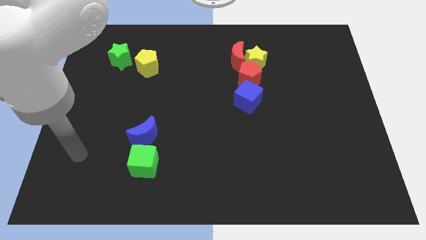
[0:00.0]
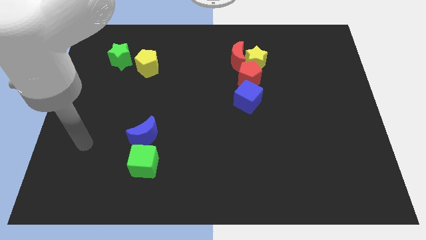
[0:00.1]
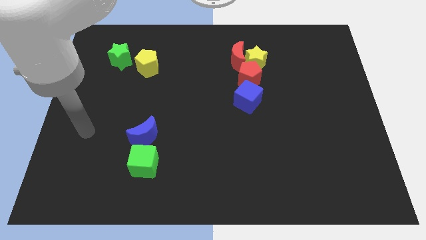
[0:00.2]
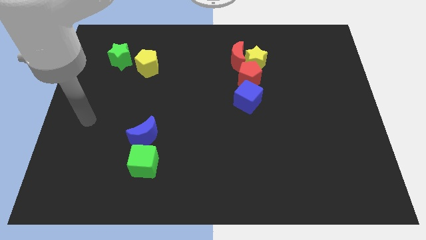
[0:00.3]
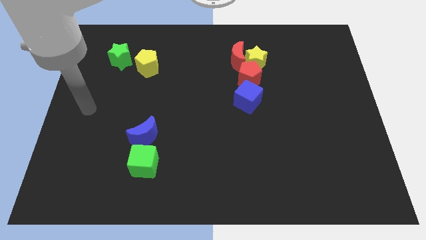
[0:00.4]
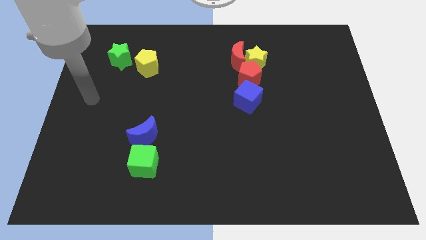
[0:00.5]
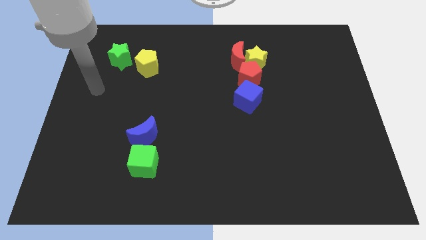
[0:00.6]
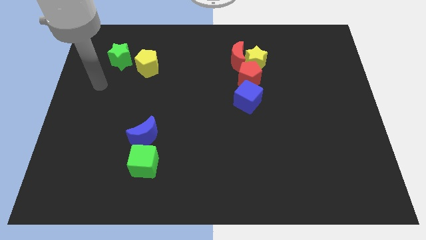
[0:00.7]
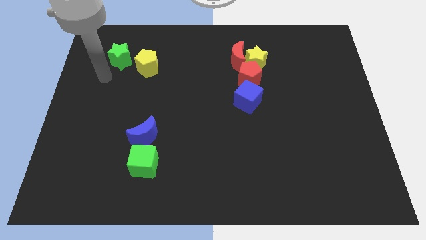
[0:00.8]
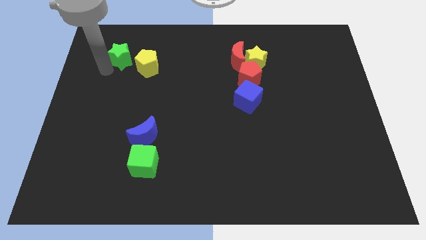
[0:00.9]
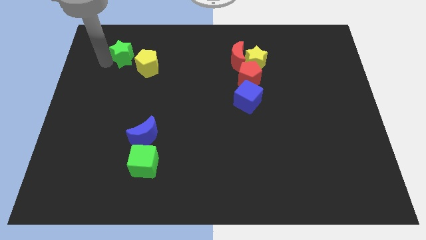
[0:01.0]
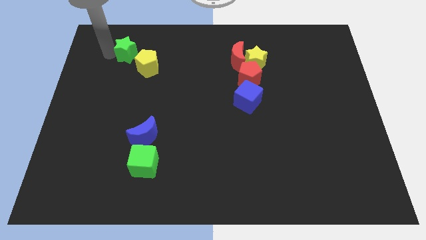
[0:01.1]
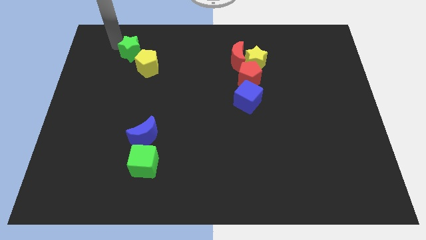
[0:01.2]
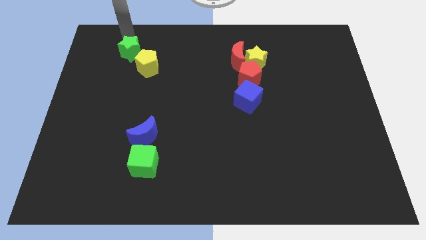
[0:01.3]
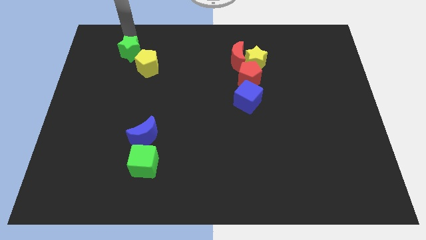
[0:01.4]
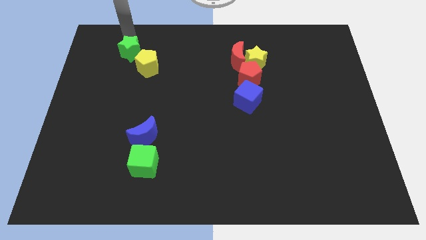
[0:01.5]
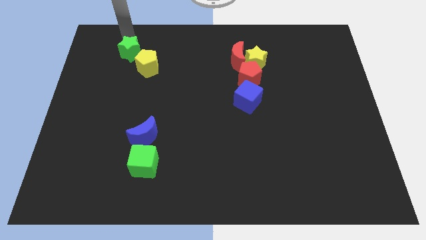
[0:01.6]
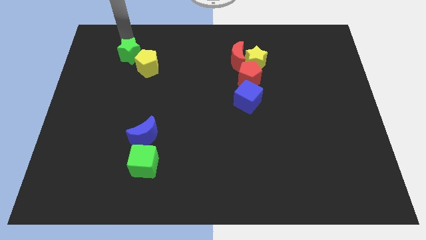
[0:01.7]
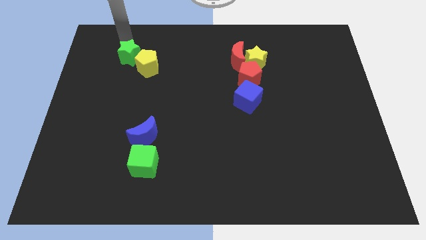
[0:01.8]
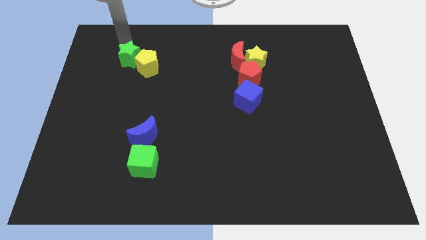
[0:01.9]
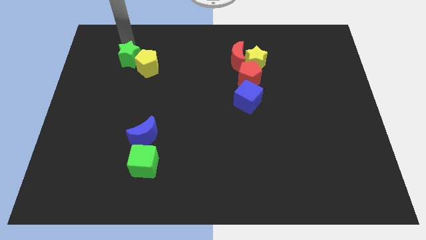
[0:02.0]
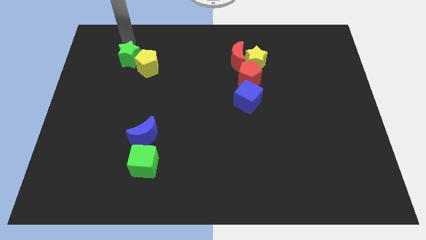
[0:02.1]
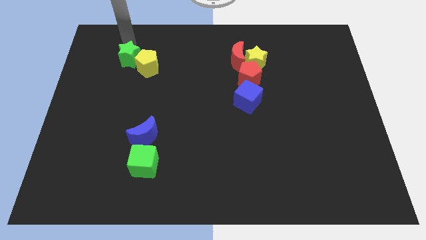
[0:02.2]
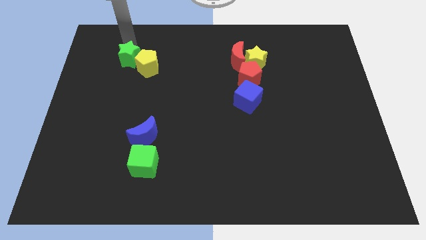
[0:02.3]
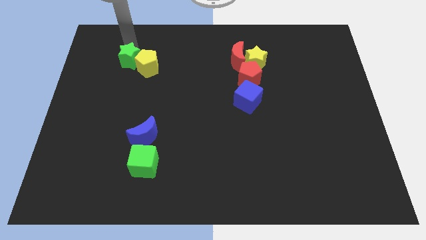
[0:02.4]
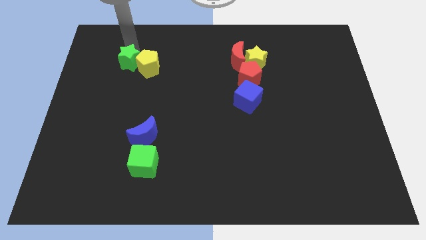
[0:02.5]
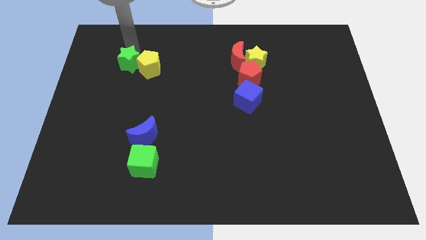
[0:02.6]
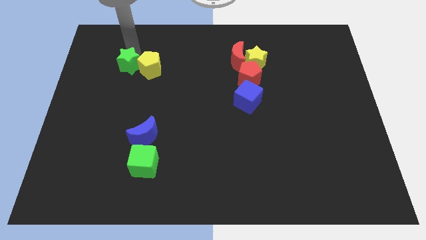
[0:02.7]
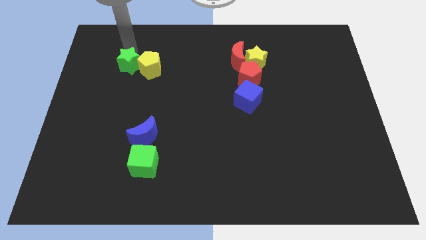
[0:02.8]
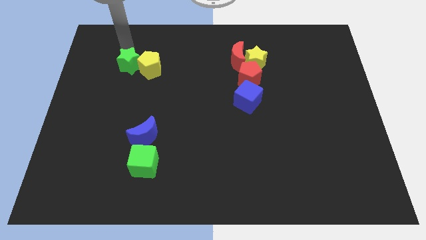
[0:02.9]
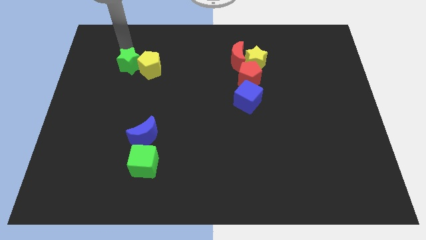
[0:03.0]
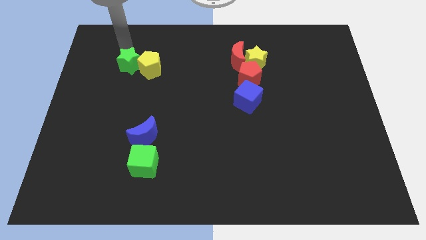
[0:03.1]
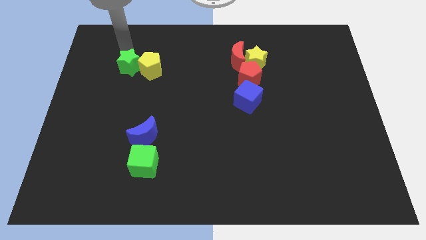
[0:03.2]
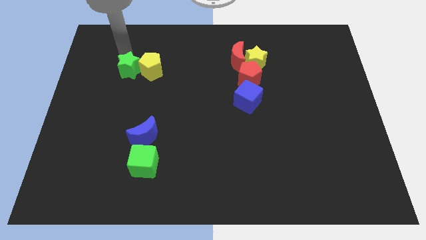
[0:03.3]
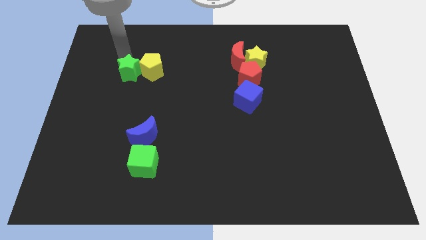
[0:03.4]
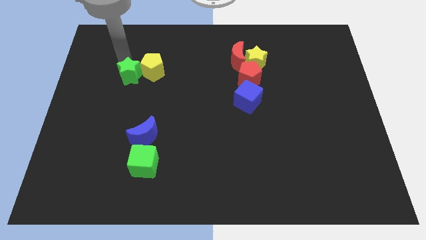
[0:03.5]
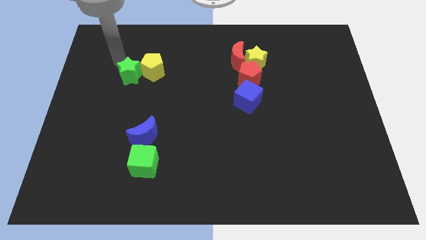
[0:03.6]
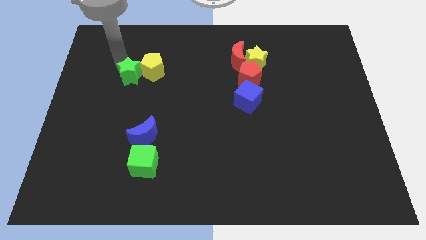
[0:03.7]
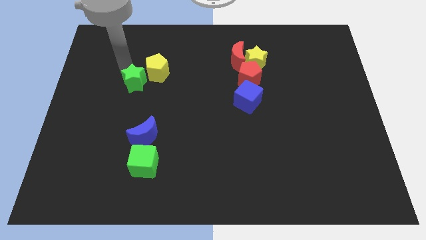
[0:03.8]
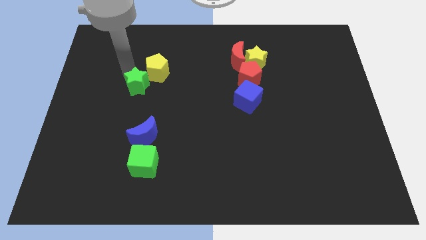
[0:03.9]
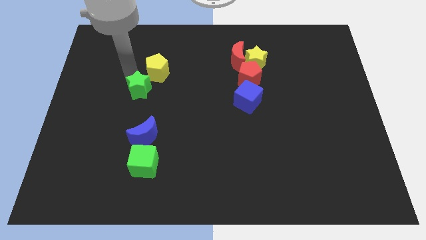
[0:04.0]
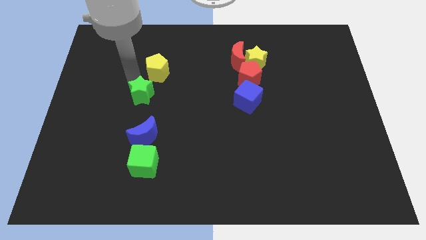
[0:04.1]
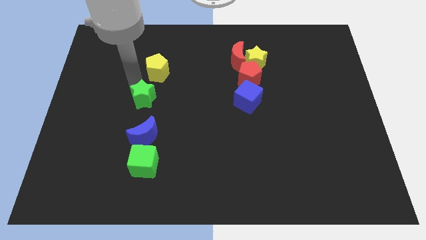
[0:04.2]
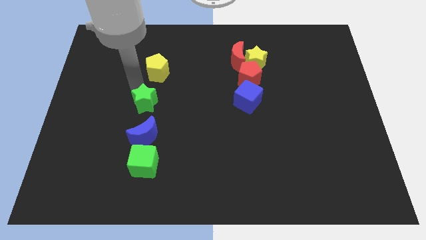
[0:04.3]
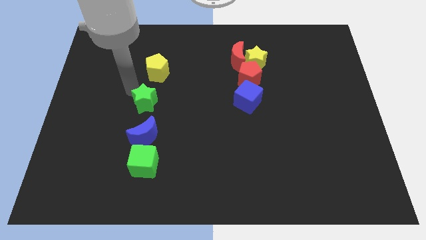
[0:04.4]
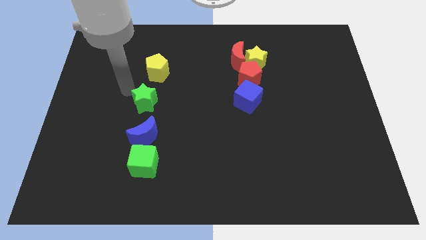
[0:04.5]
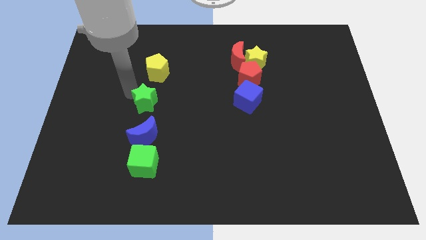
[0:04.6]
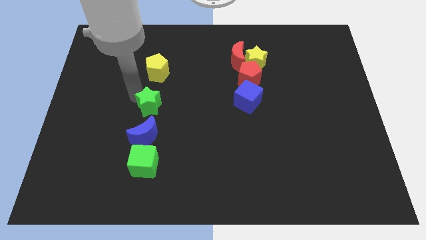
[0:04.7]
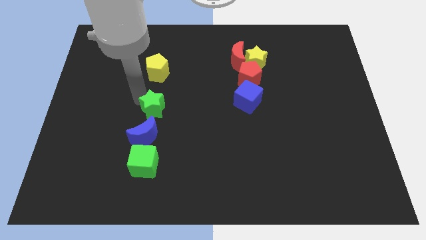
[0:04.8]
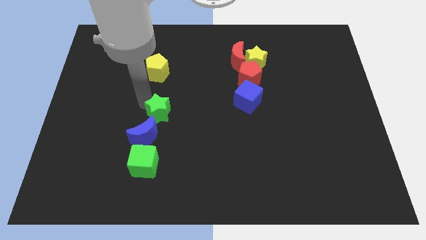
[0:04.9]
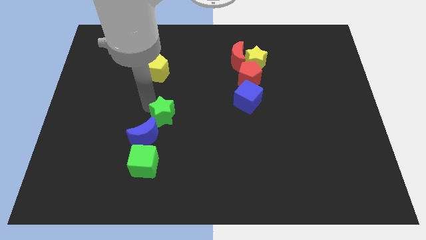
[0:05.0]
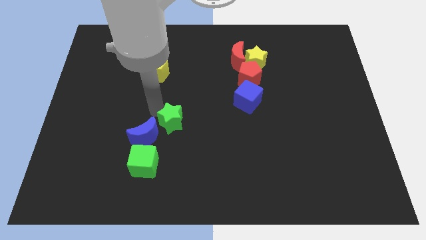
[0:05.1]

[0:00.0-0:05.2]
push the green star just right of the blue moon

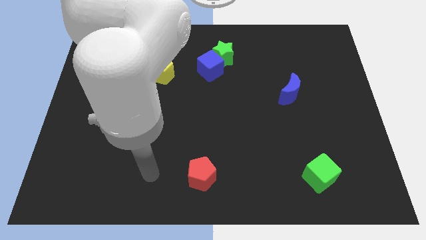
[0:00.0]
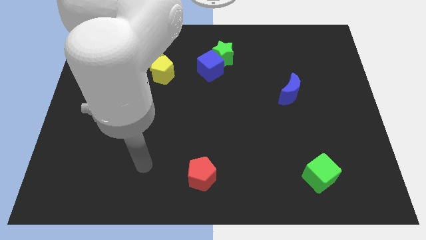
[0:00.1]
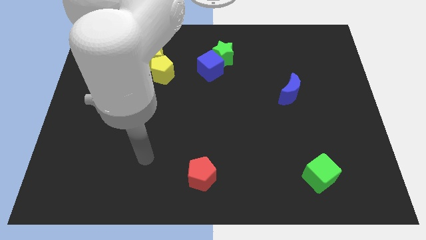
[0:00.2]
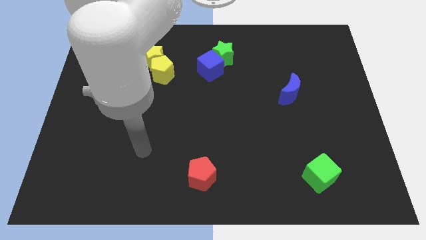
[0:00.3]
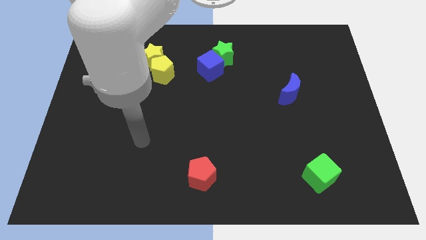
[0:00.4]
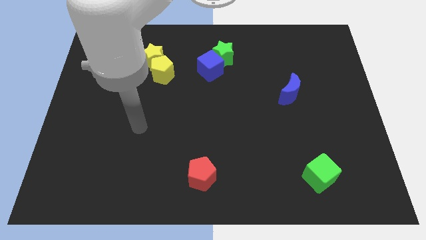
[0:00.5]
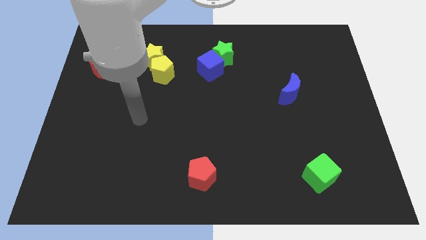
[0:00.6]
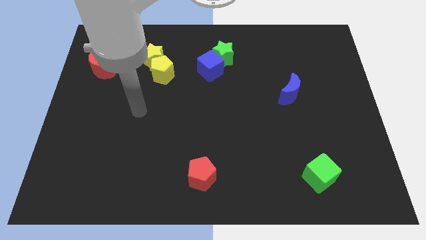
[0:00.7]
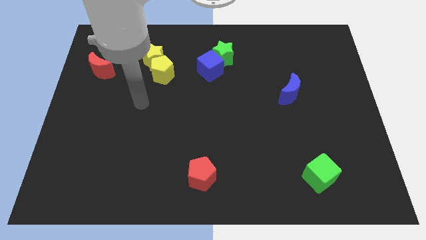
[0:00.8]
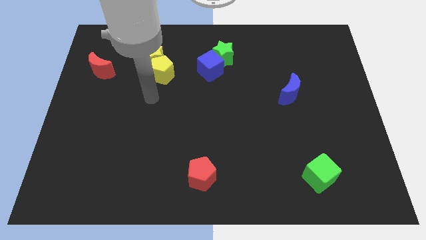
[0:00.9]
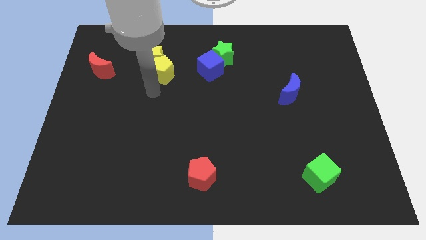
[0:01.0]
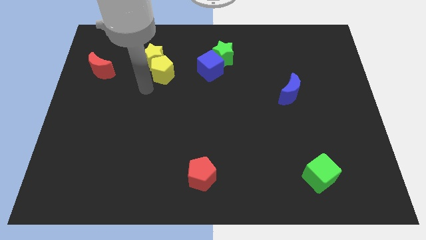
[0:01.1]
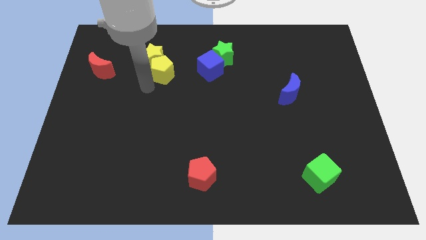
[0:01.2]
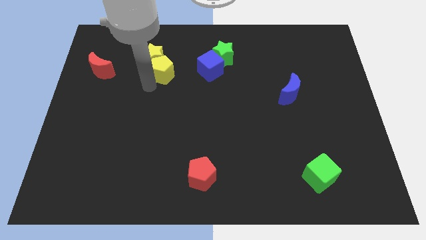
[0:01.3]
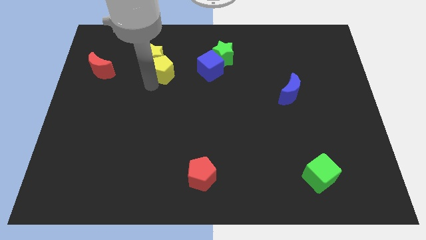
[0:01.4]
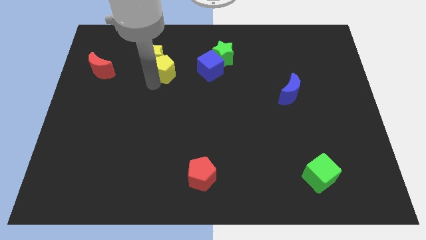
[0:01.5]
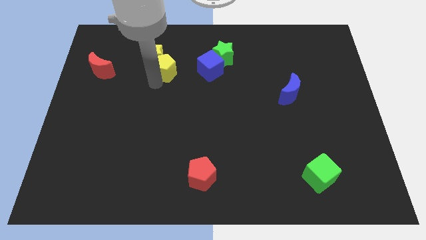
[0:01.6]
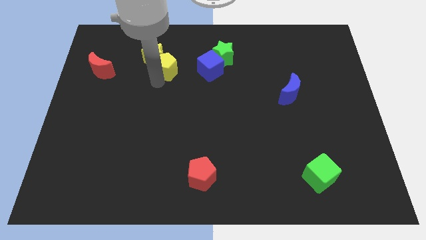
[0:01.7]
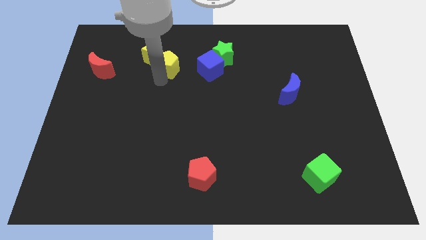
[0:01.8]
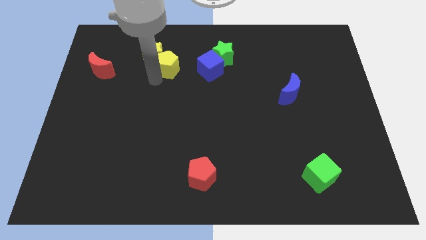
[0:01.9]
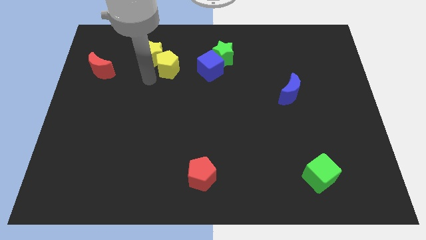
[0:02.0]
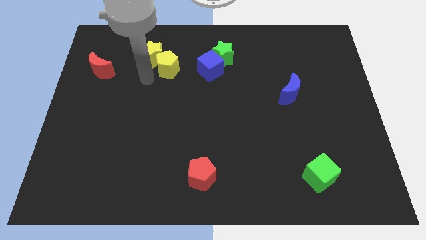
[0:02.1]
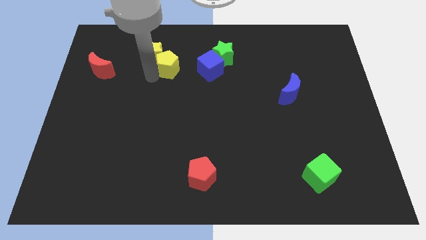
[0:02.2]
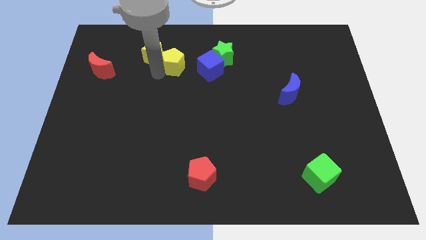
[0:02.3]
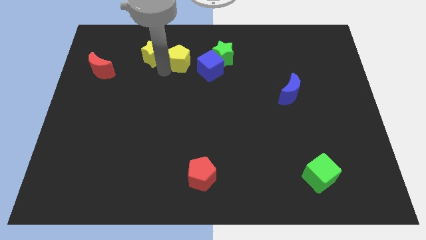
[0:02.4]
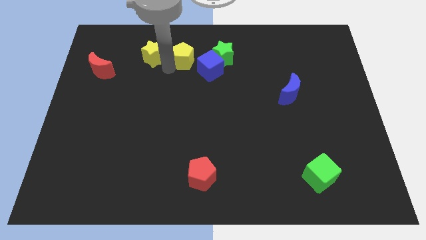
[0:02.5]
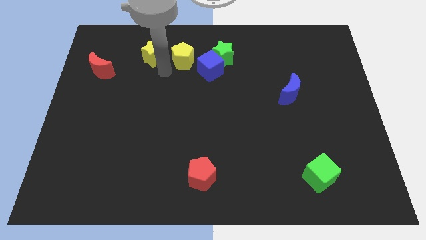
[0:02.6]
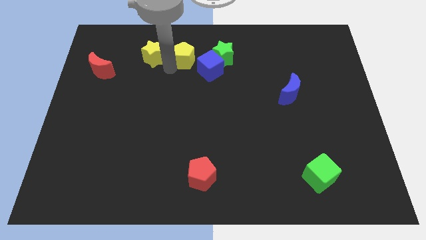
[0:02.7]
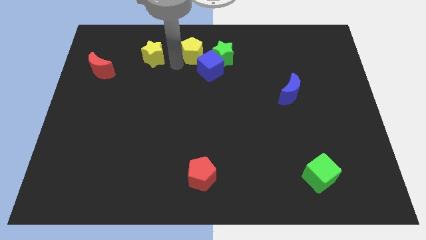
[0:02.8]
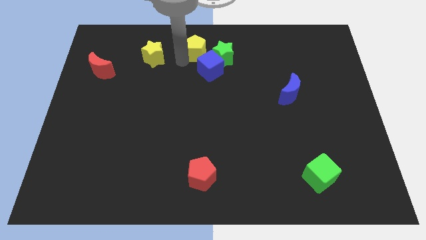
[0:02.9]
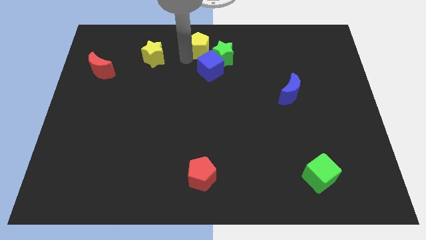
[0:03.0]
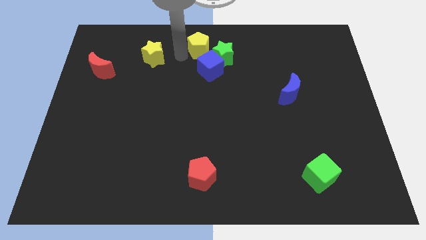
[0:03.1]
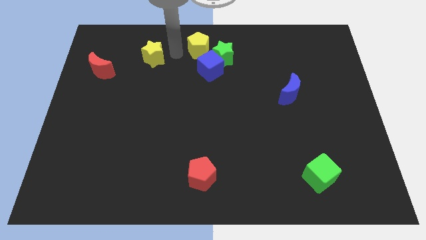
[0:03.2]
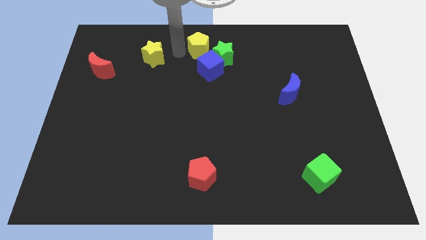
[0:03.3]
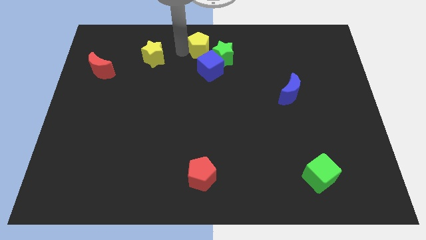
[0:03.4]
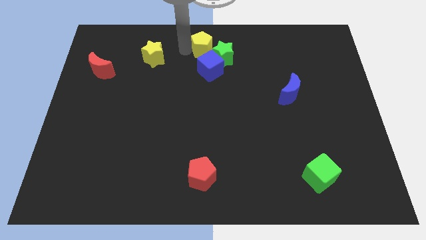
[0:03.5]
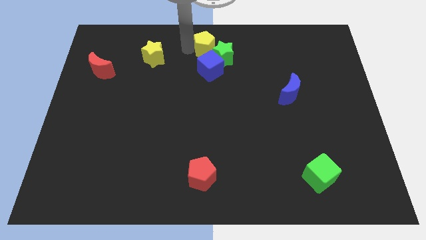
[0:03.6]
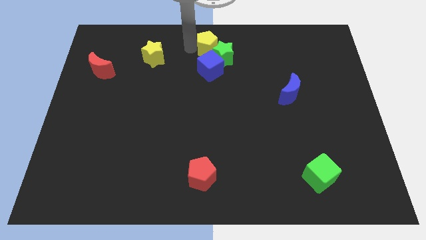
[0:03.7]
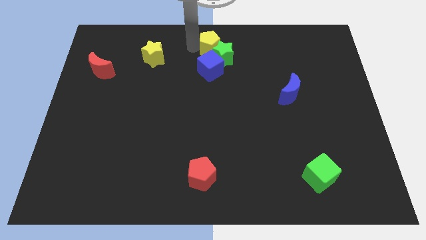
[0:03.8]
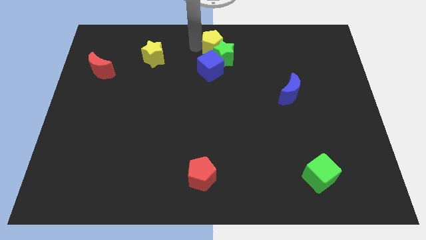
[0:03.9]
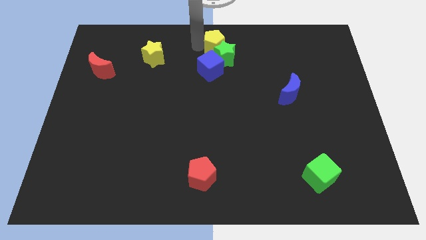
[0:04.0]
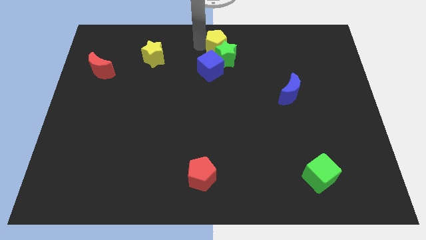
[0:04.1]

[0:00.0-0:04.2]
push the yellow pentagon to the top right of the blue cube
